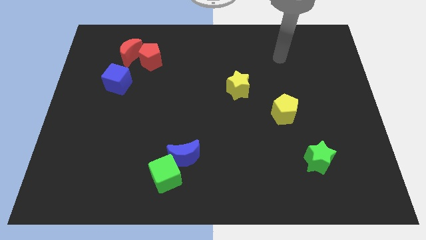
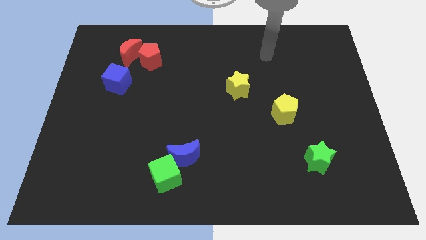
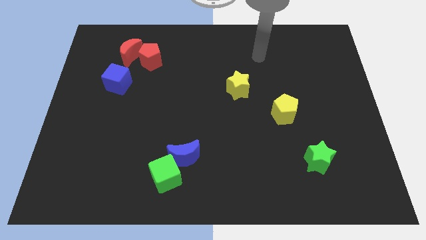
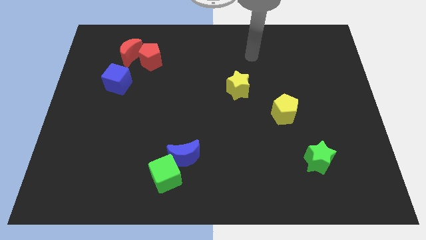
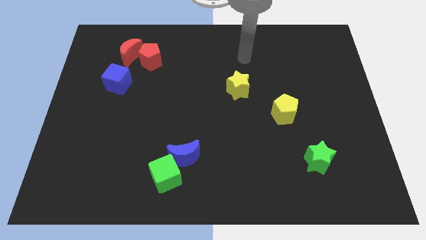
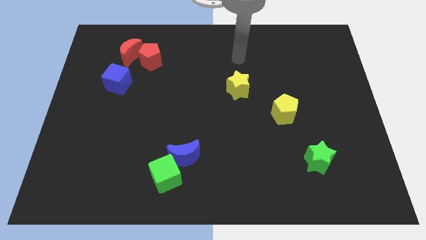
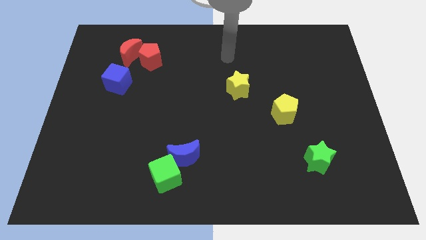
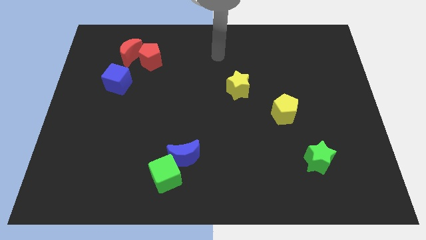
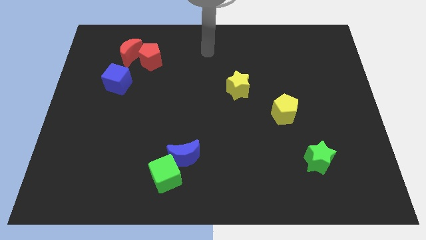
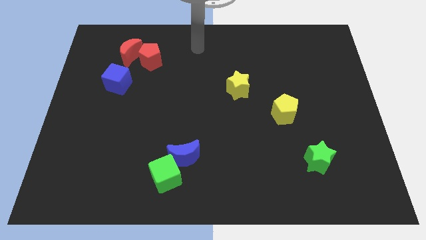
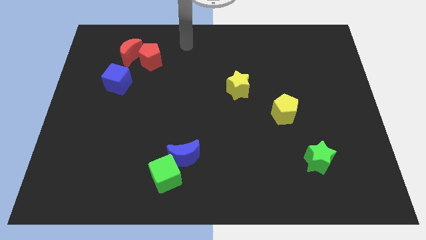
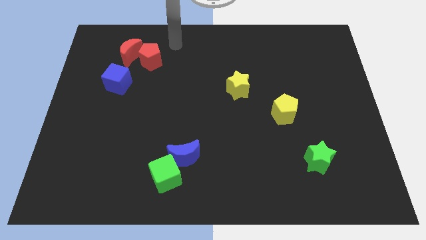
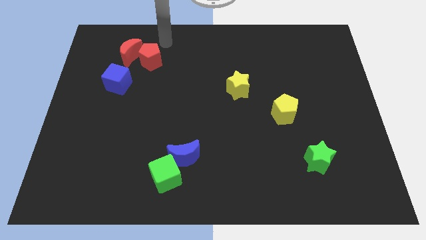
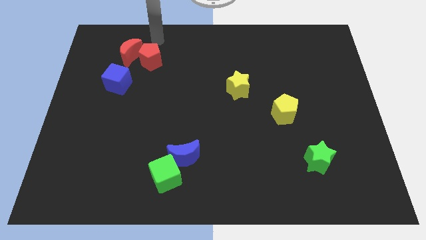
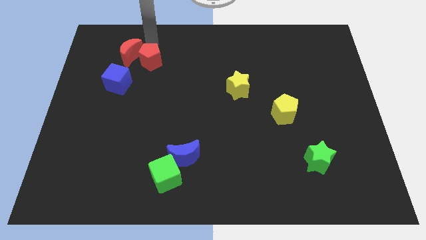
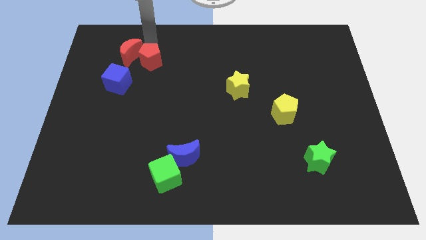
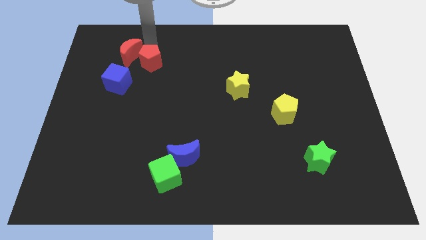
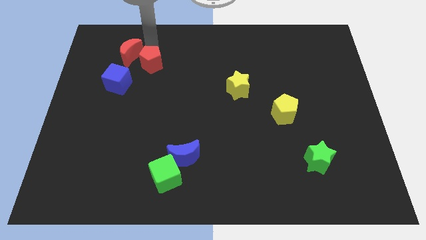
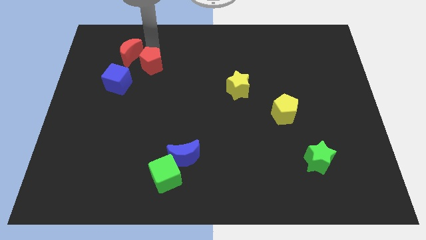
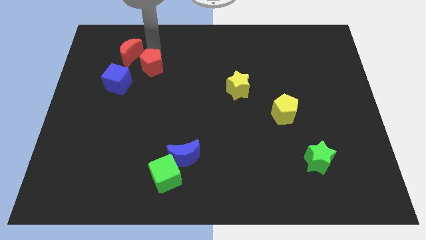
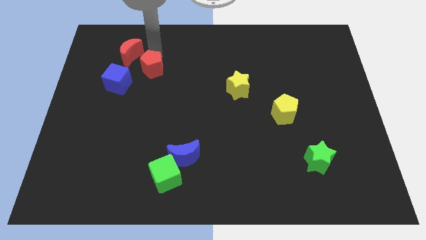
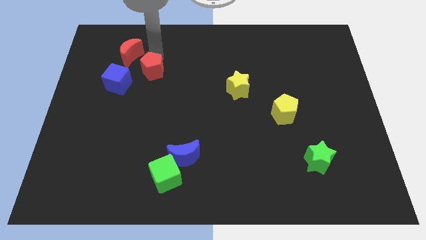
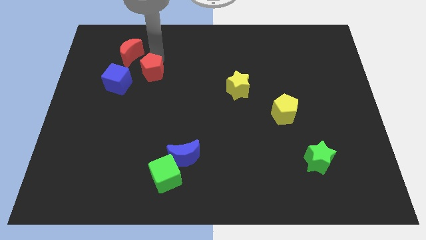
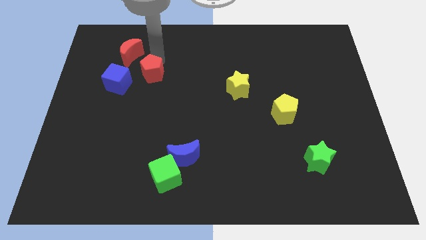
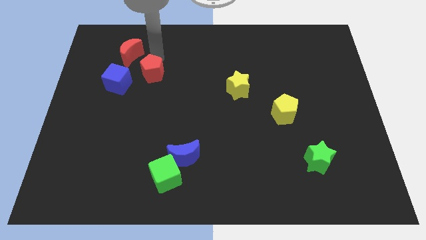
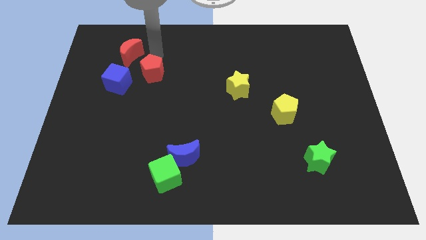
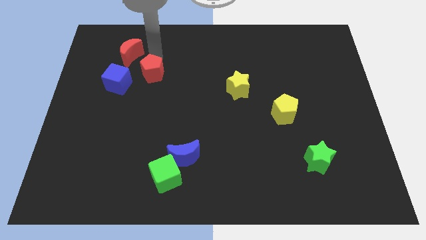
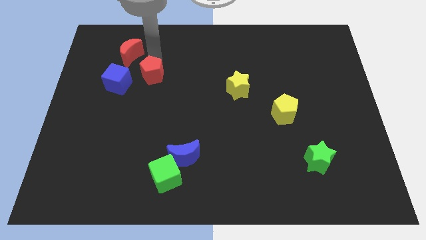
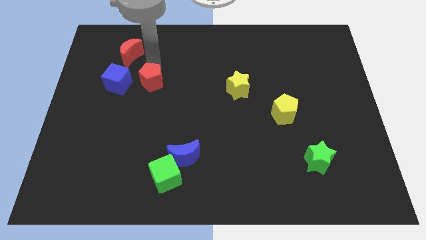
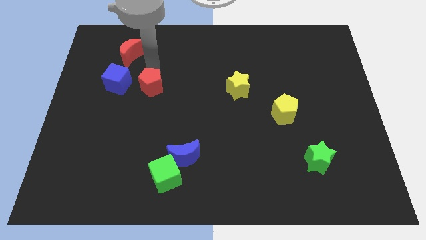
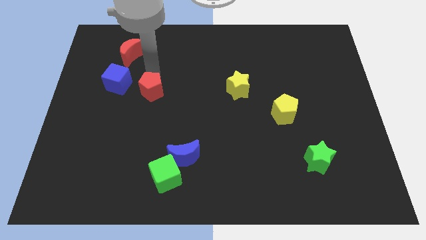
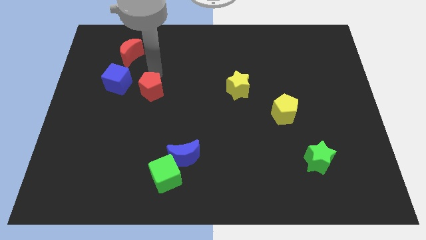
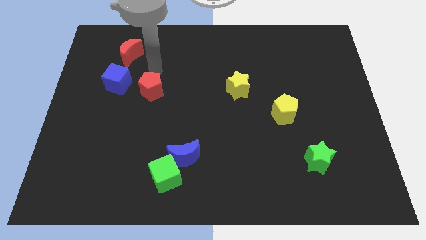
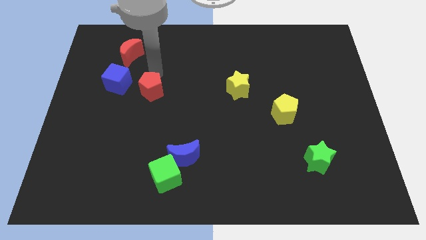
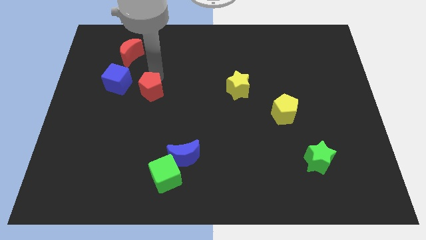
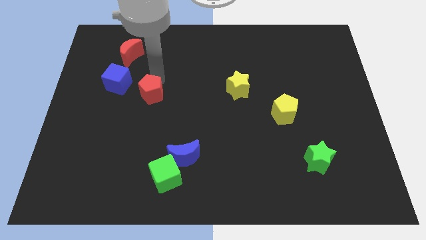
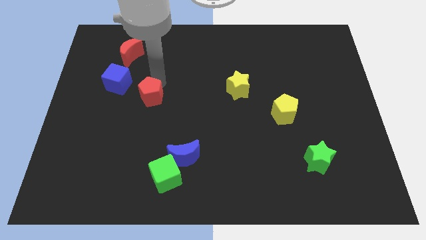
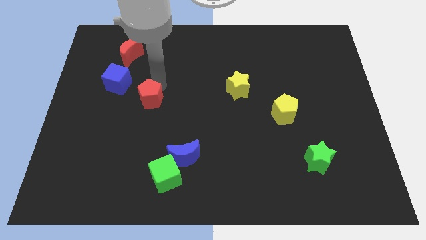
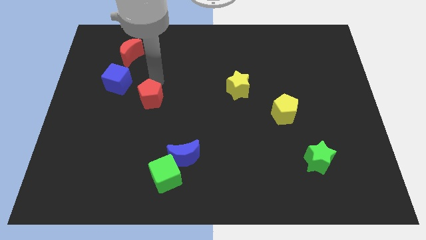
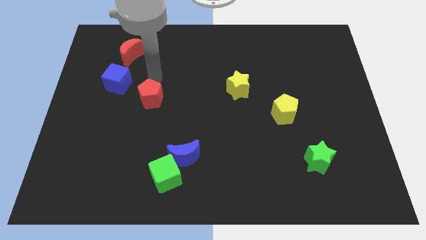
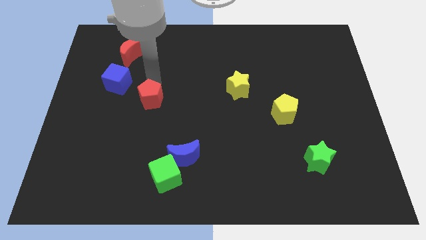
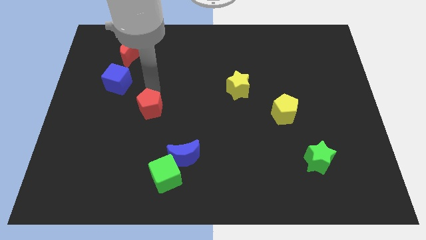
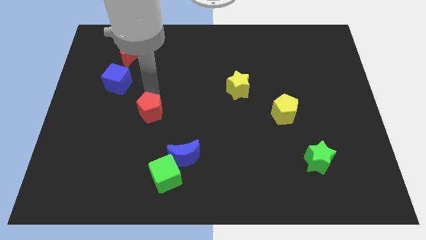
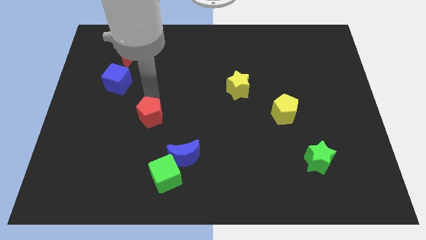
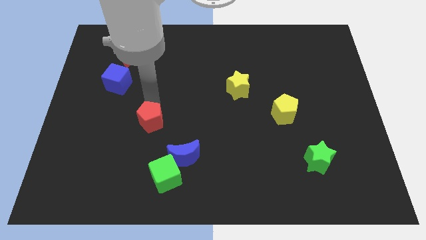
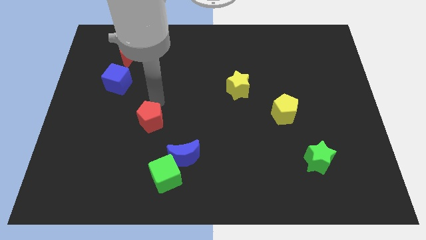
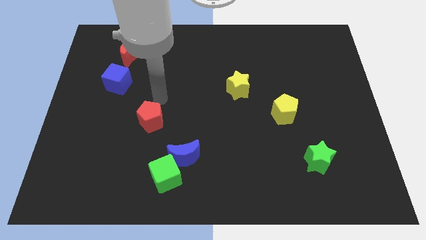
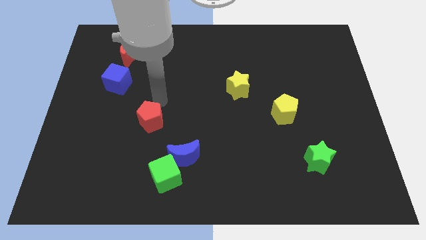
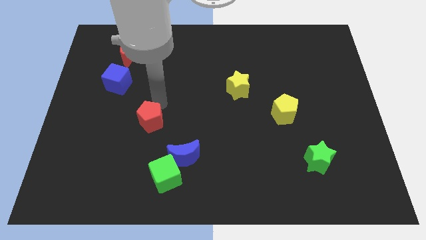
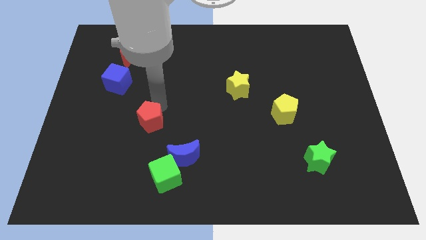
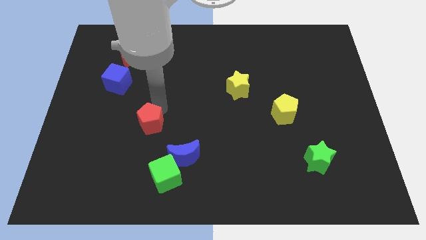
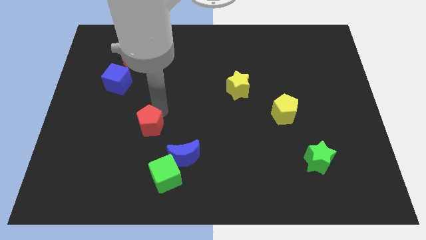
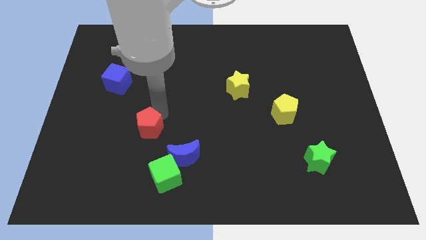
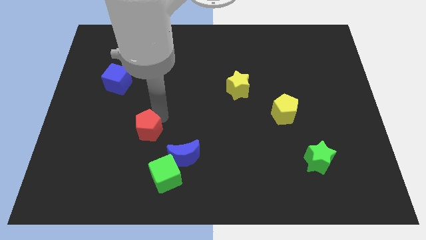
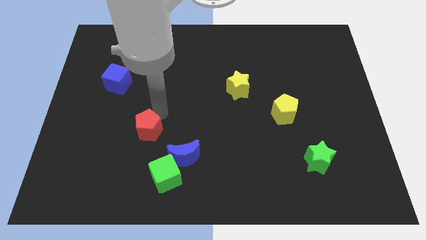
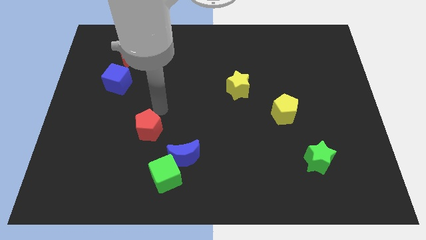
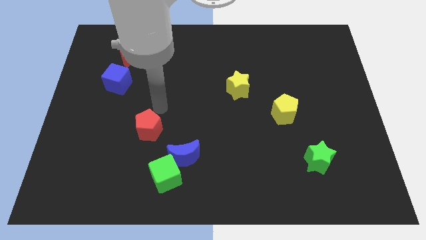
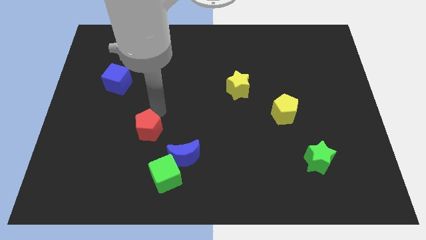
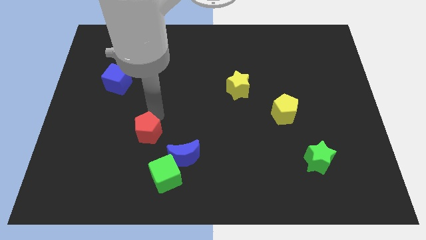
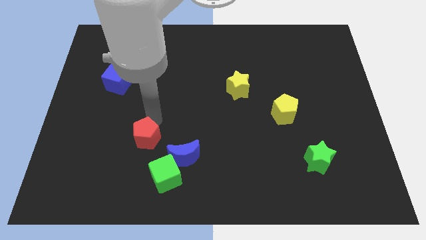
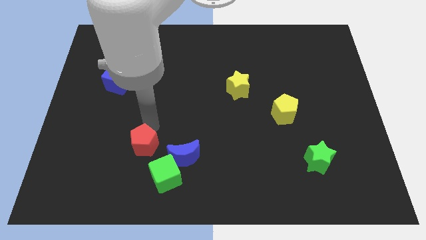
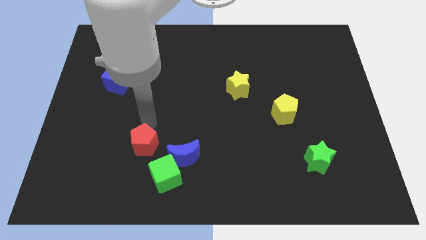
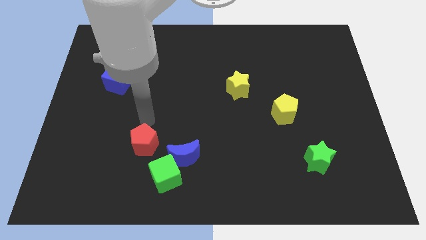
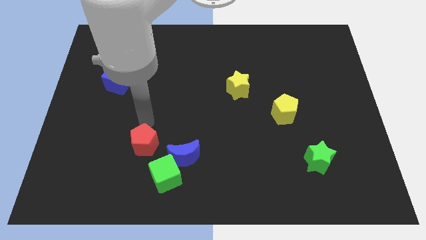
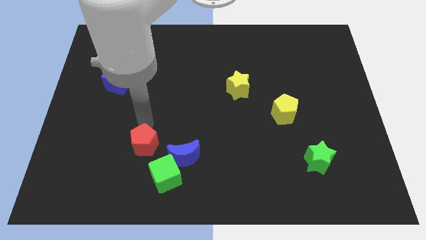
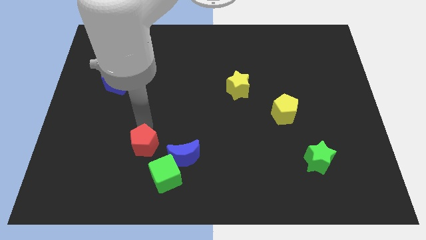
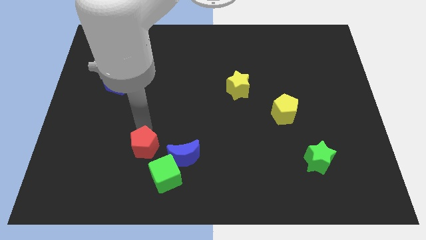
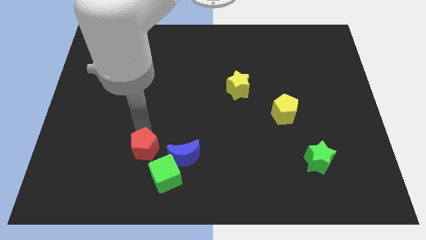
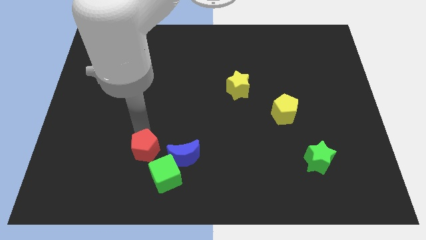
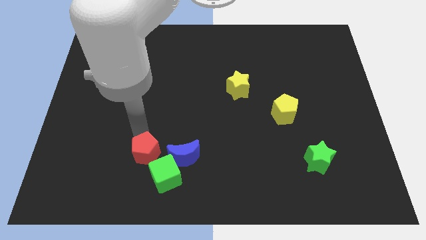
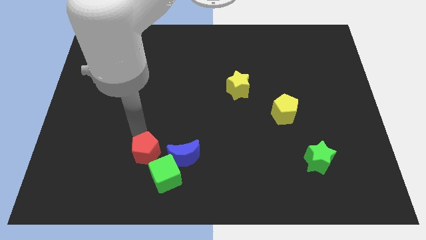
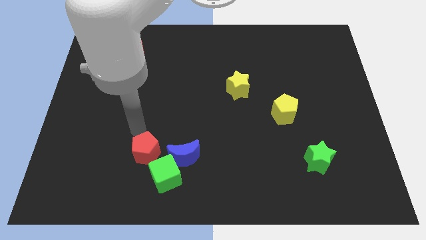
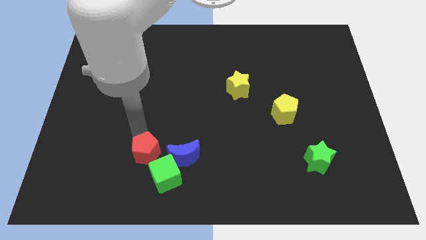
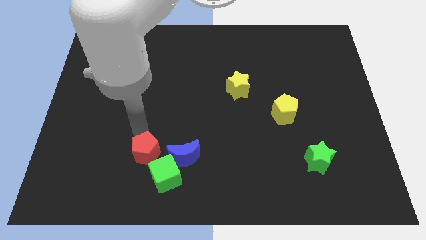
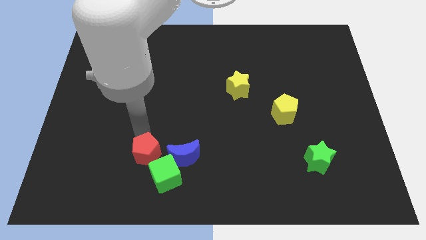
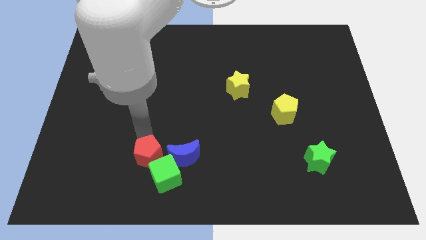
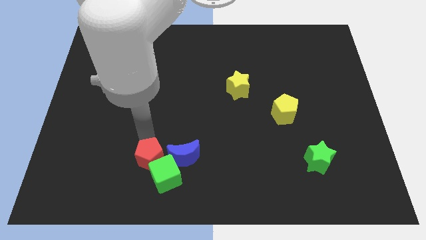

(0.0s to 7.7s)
put the red pentagon diagonally down and to the left of the blue moon

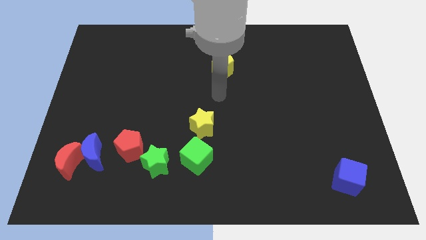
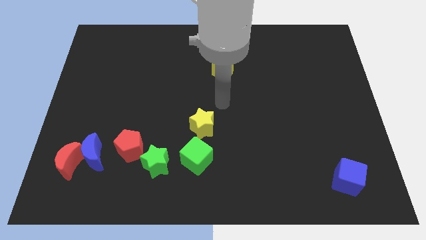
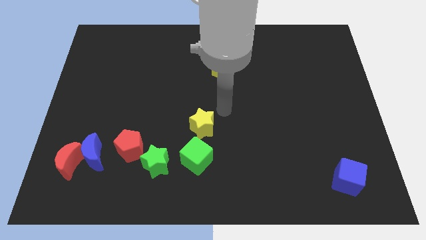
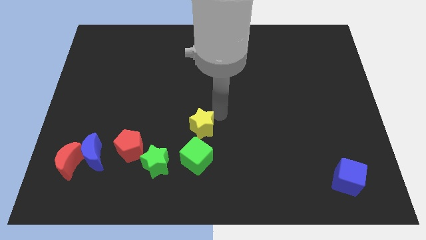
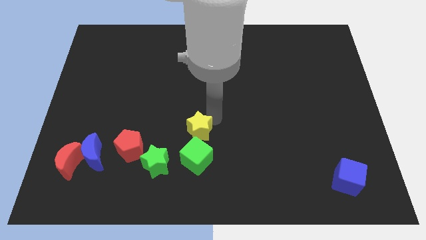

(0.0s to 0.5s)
push the yellow star to the top right side of the green star

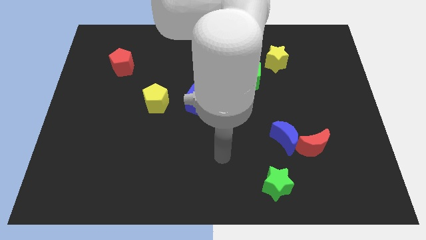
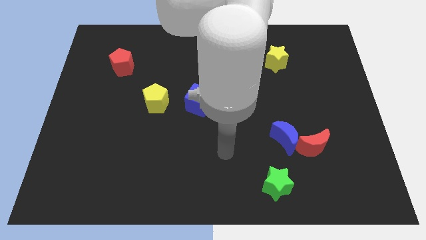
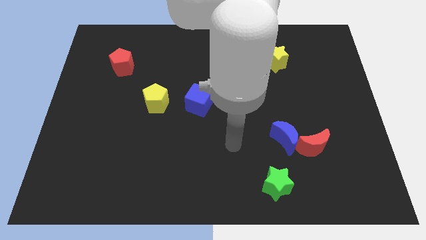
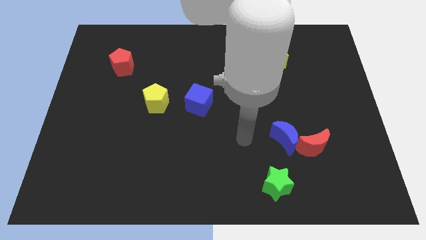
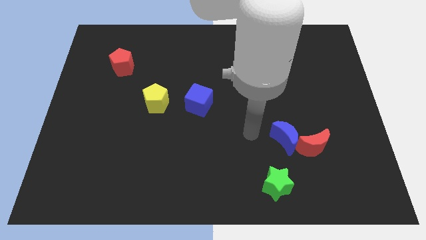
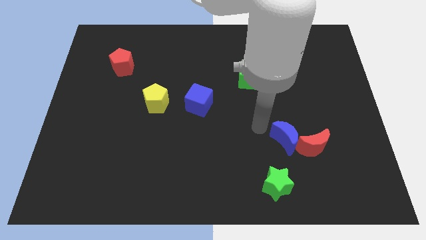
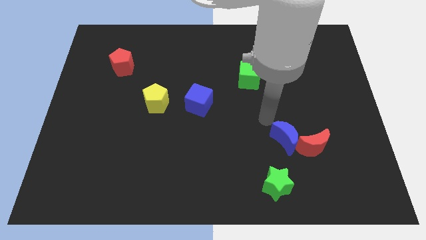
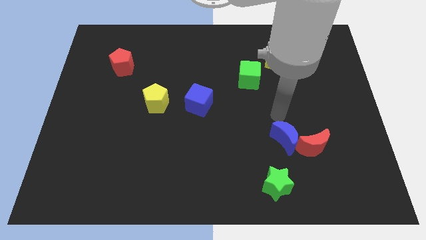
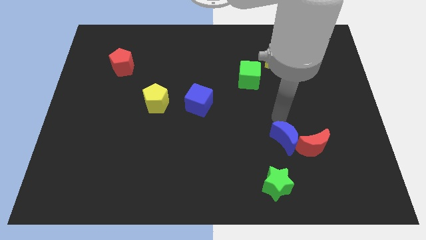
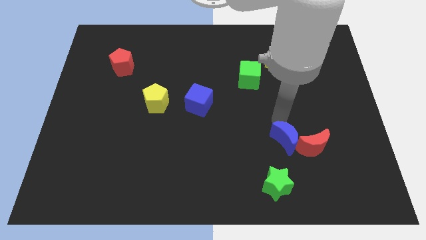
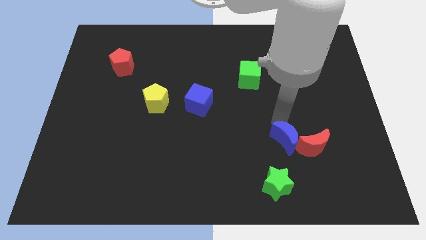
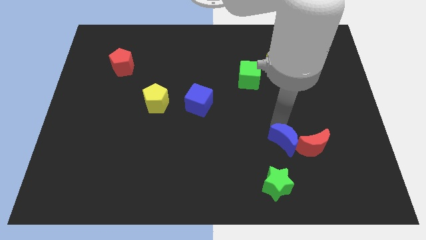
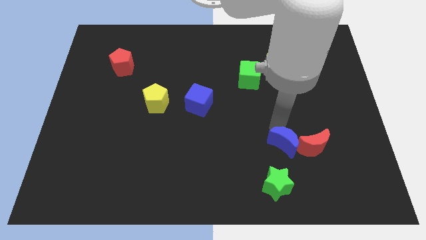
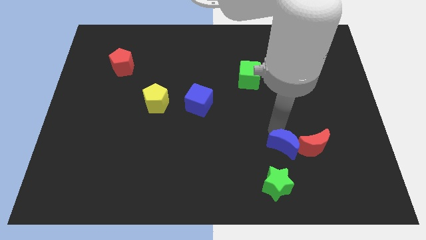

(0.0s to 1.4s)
push the blue moon to the bottom left of the red moon
